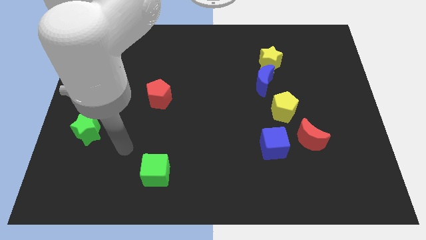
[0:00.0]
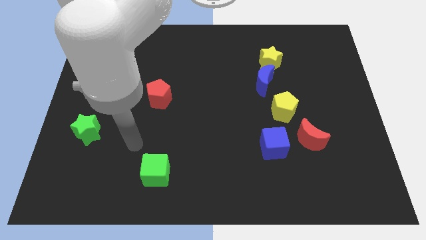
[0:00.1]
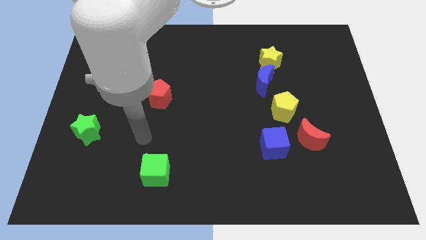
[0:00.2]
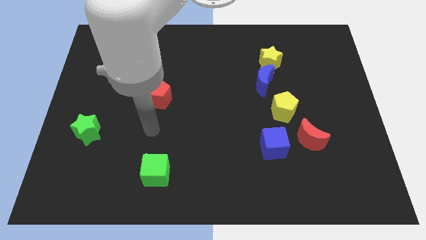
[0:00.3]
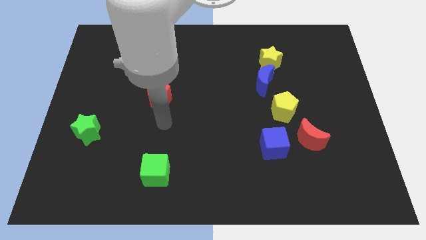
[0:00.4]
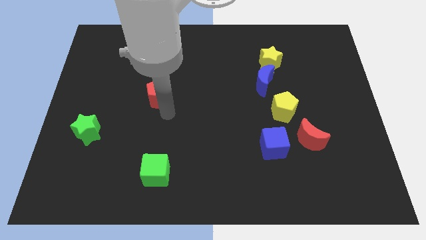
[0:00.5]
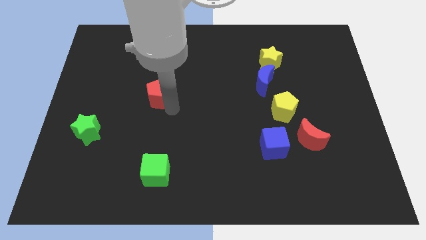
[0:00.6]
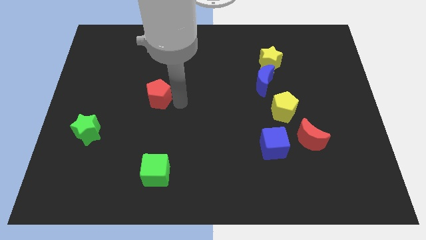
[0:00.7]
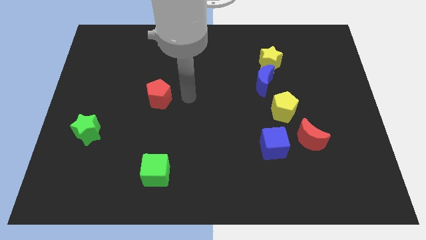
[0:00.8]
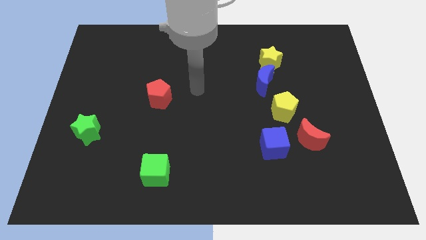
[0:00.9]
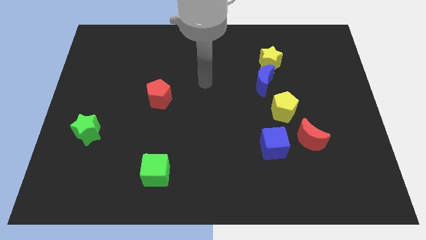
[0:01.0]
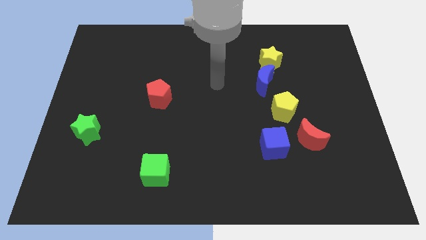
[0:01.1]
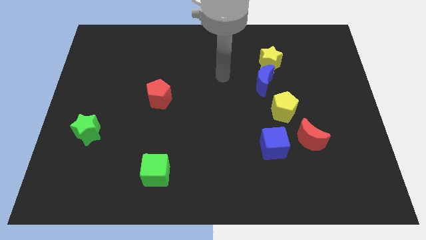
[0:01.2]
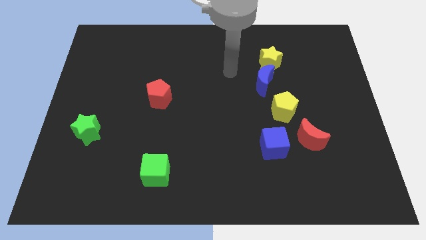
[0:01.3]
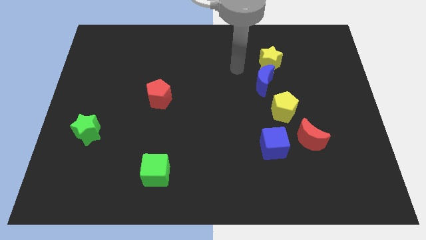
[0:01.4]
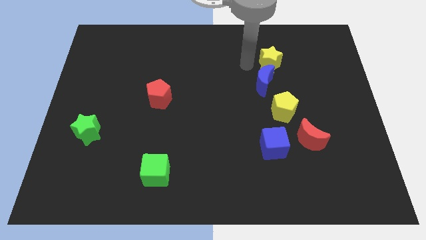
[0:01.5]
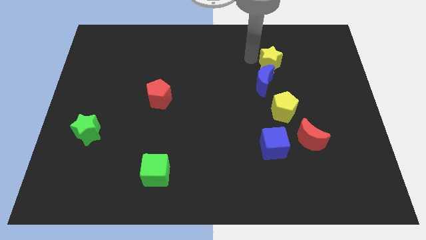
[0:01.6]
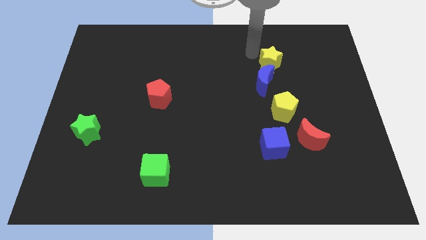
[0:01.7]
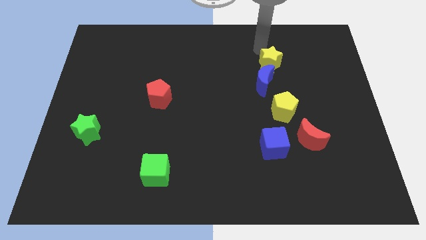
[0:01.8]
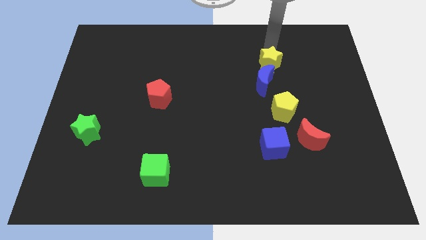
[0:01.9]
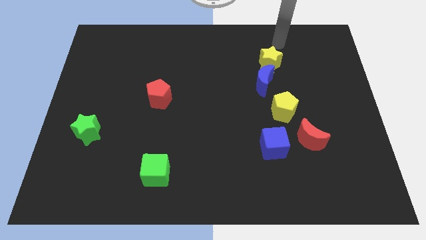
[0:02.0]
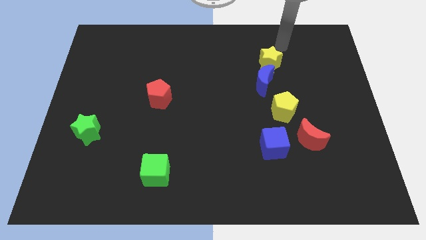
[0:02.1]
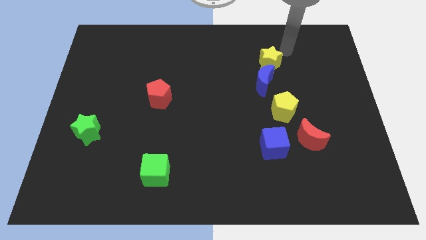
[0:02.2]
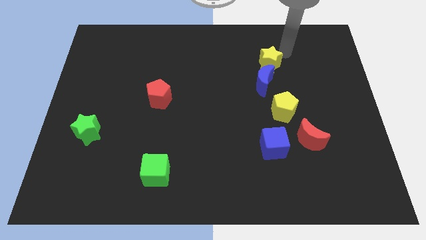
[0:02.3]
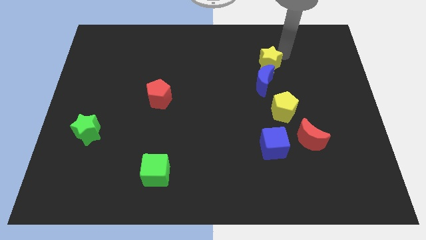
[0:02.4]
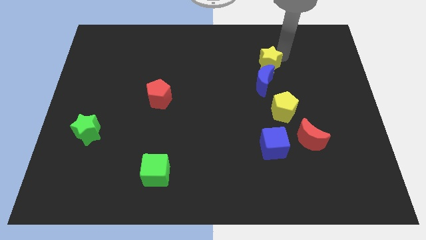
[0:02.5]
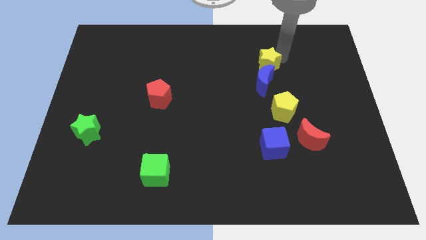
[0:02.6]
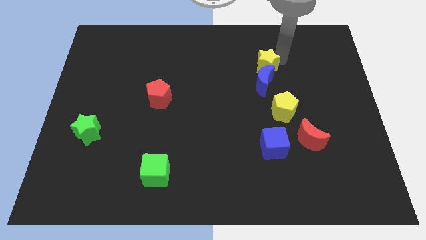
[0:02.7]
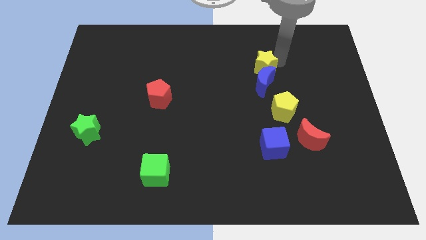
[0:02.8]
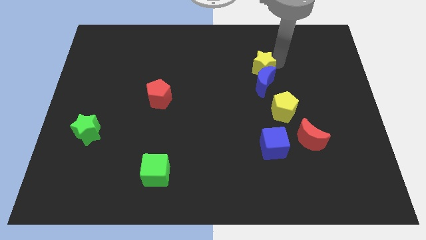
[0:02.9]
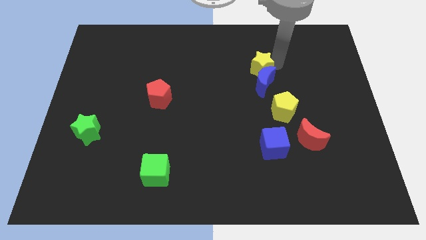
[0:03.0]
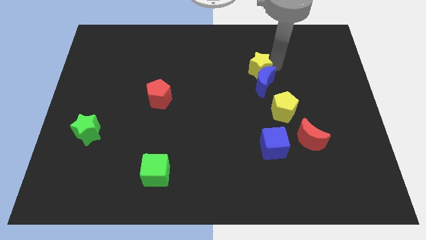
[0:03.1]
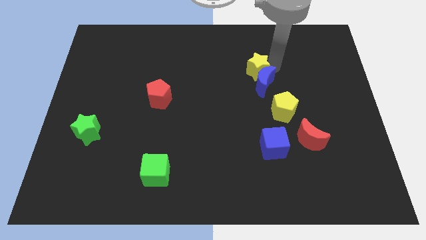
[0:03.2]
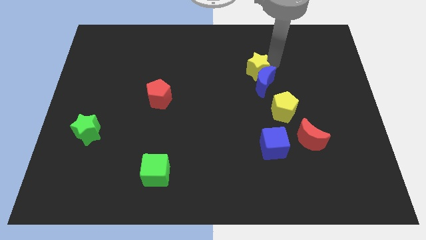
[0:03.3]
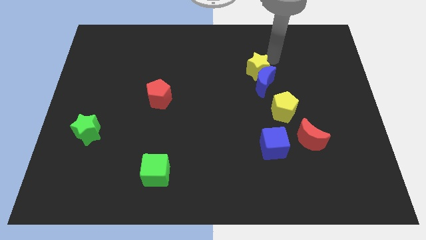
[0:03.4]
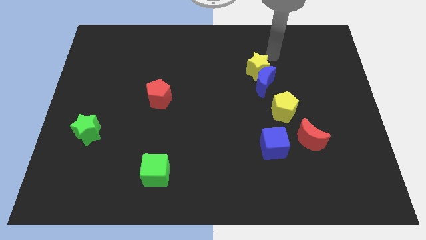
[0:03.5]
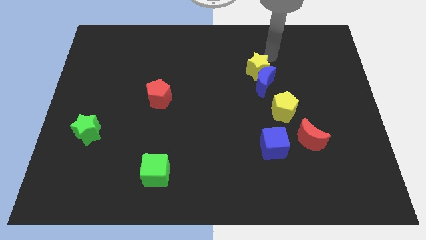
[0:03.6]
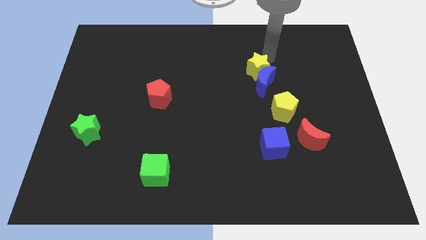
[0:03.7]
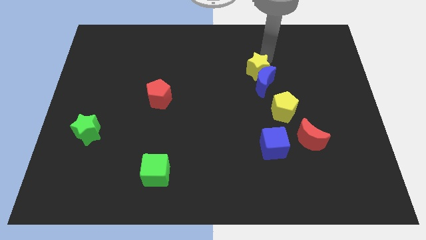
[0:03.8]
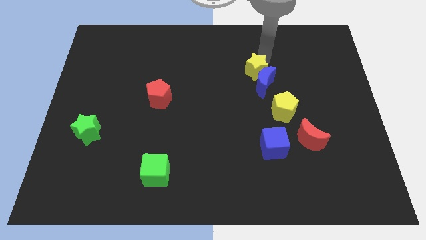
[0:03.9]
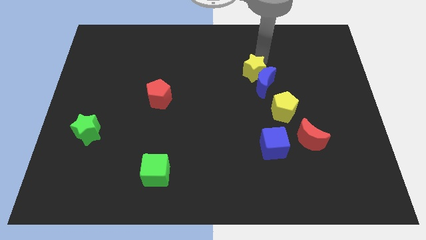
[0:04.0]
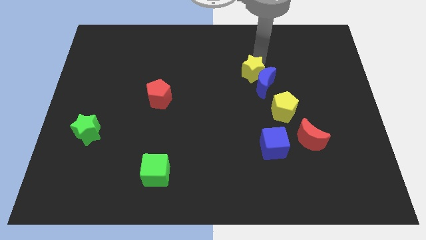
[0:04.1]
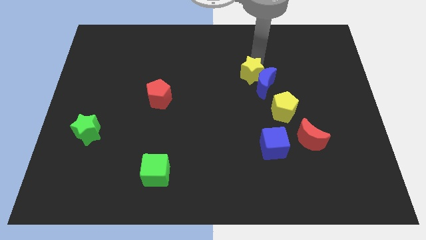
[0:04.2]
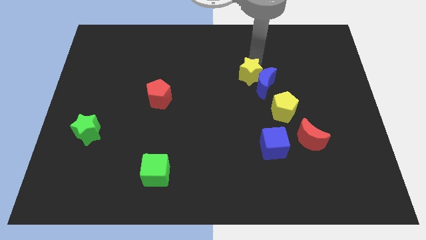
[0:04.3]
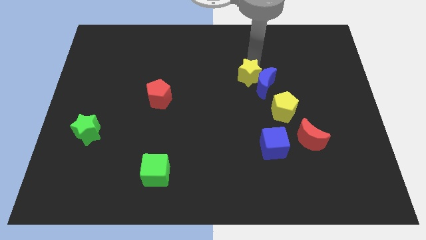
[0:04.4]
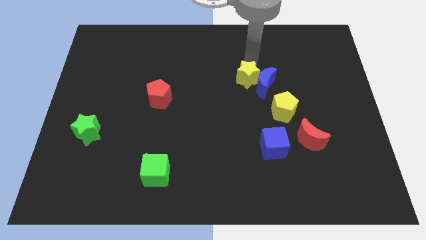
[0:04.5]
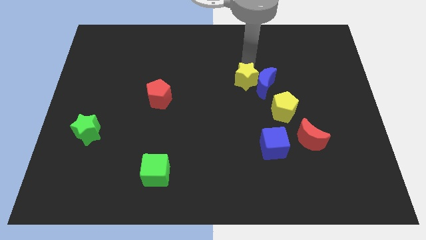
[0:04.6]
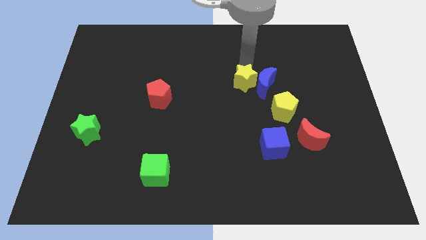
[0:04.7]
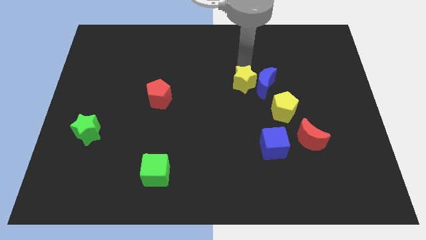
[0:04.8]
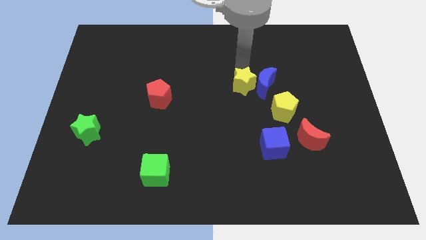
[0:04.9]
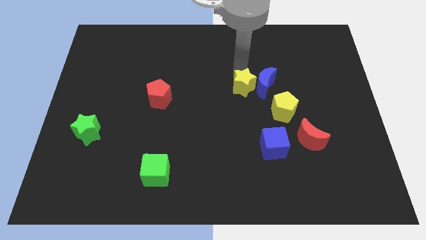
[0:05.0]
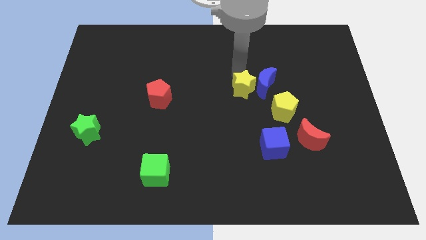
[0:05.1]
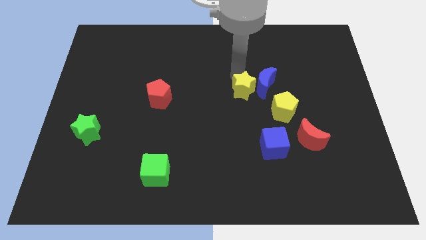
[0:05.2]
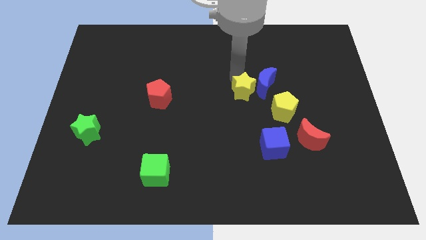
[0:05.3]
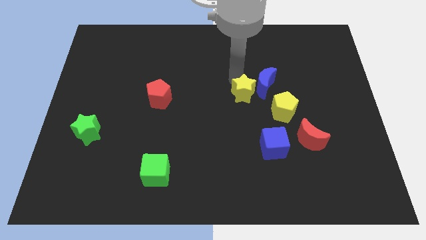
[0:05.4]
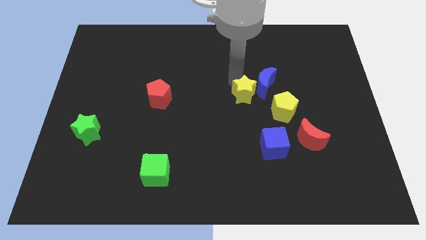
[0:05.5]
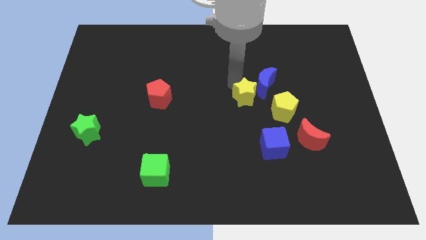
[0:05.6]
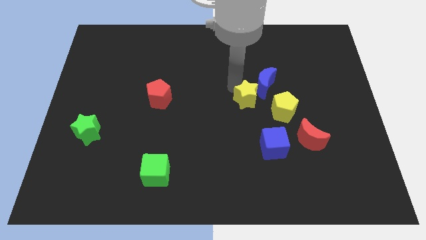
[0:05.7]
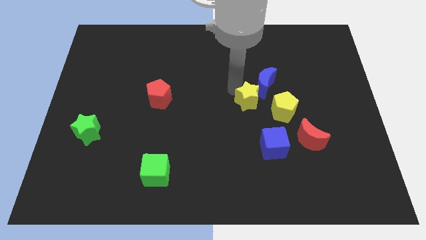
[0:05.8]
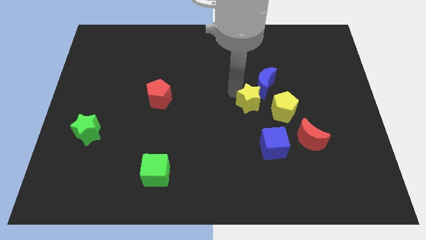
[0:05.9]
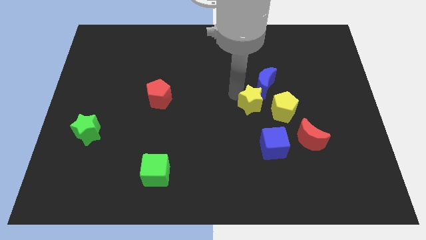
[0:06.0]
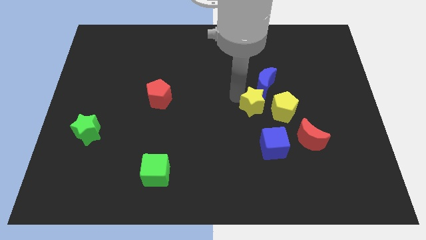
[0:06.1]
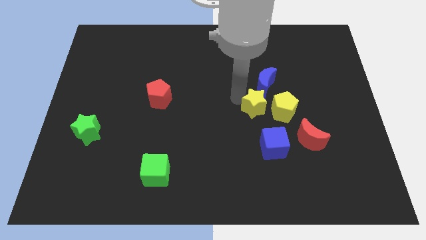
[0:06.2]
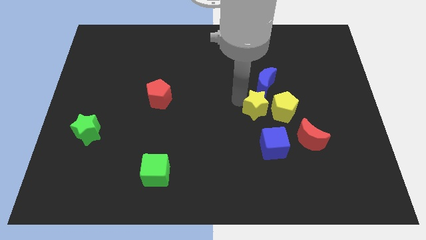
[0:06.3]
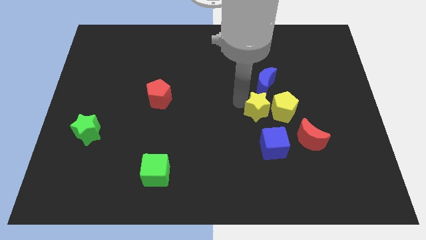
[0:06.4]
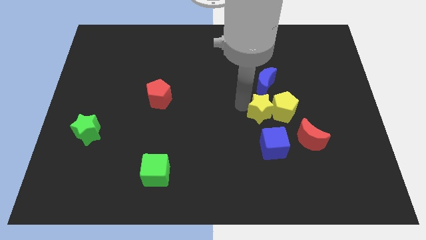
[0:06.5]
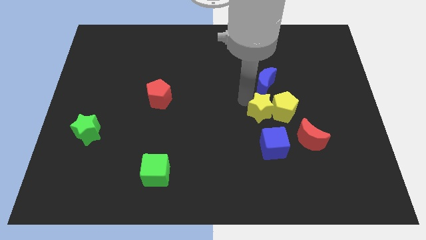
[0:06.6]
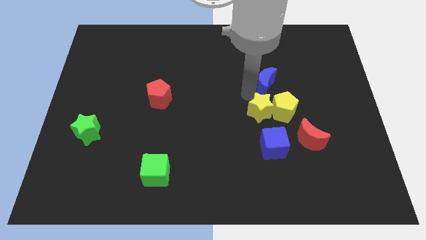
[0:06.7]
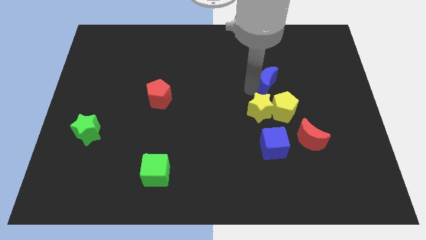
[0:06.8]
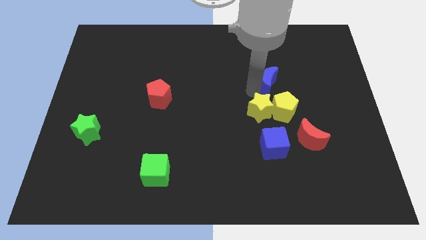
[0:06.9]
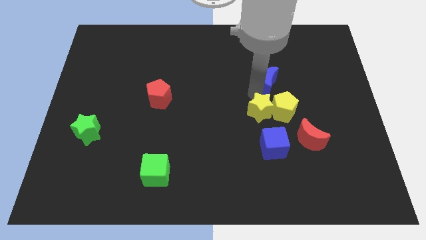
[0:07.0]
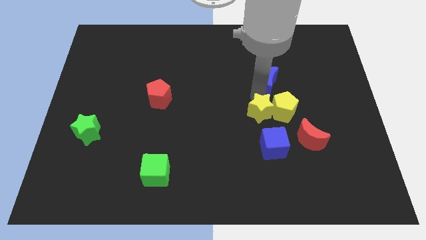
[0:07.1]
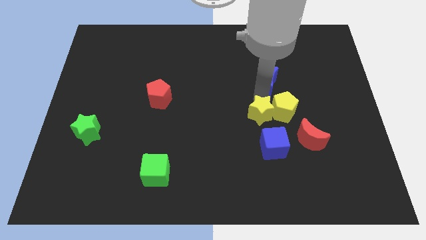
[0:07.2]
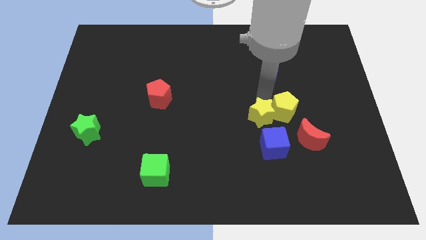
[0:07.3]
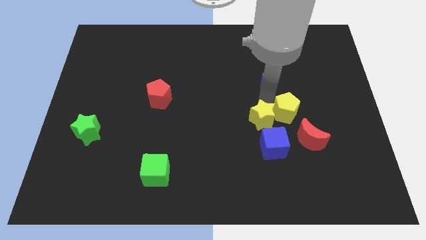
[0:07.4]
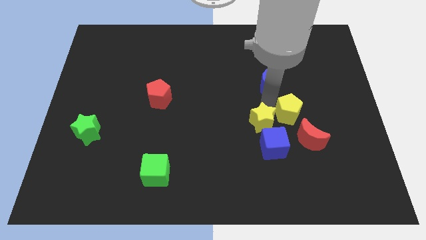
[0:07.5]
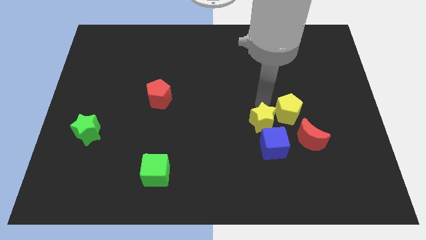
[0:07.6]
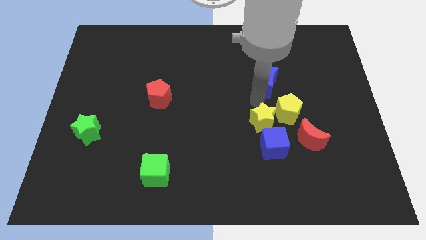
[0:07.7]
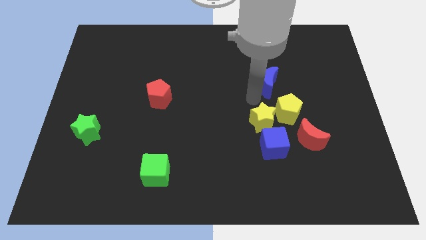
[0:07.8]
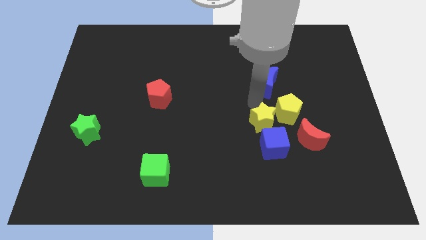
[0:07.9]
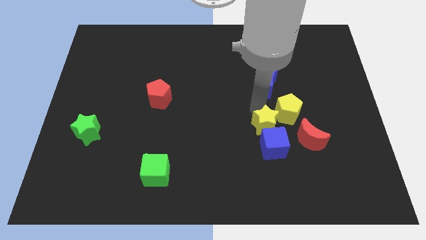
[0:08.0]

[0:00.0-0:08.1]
slide the yellow star close to the blue cube
